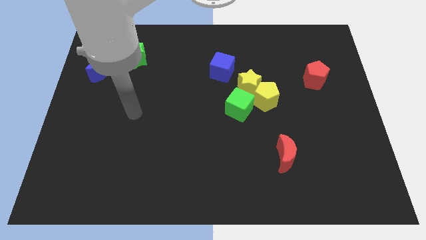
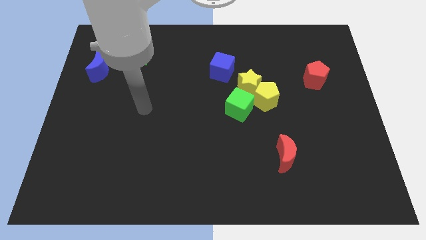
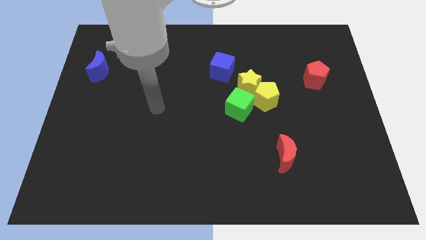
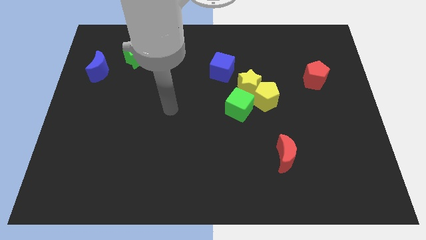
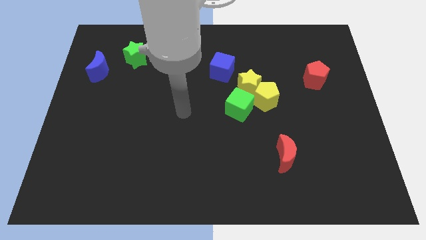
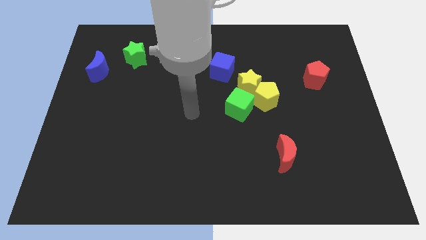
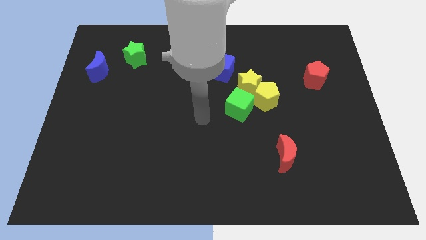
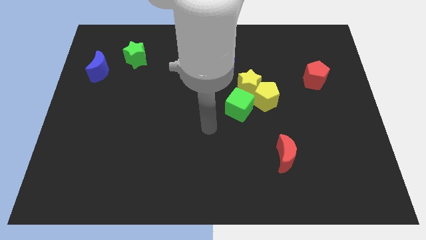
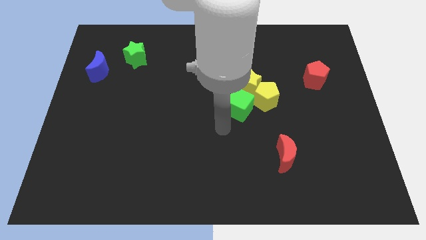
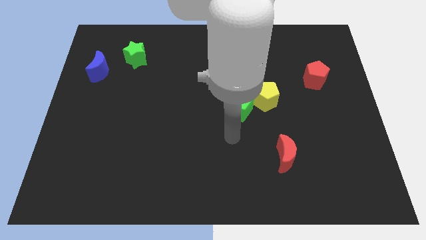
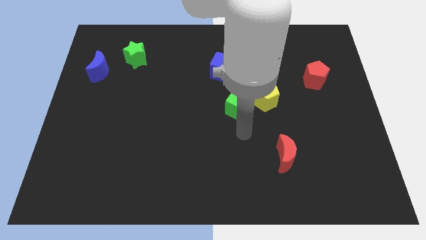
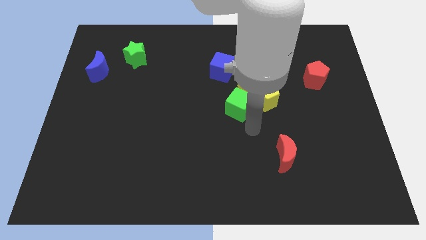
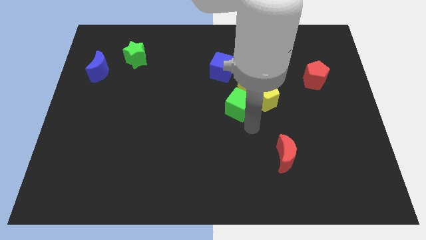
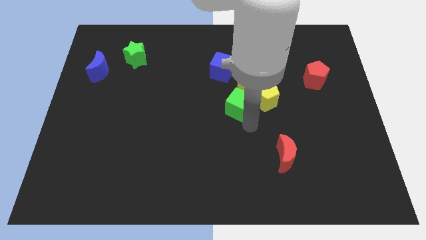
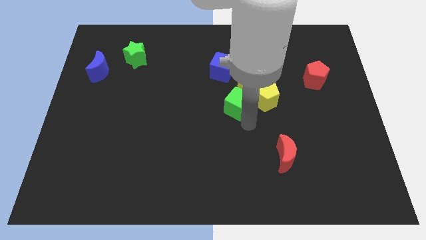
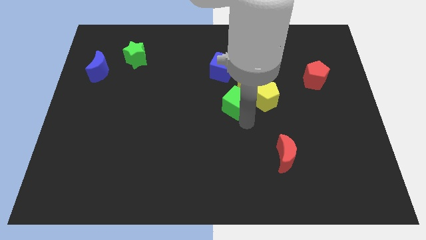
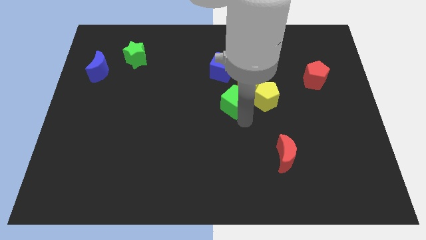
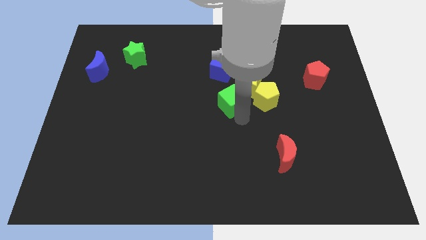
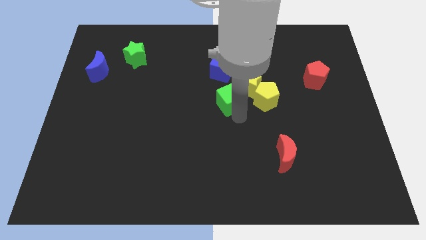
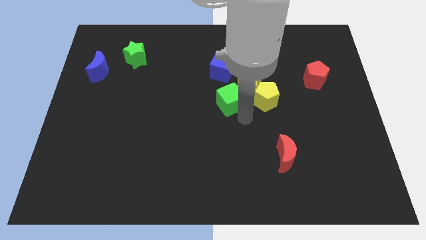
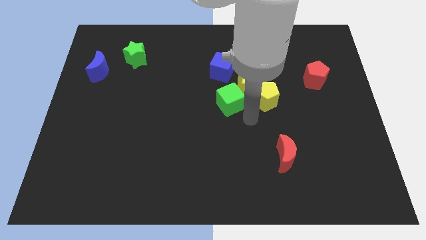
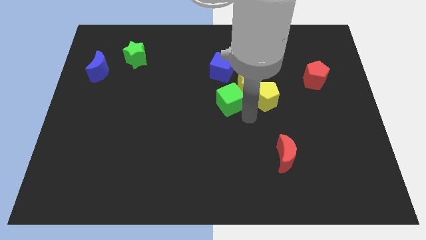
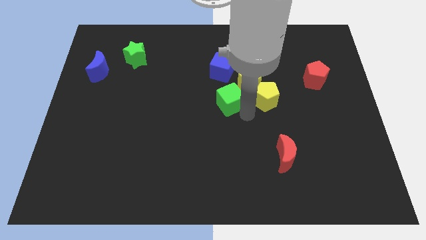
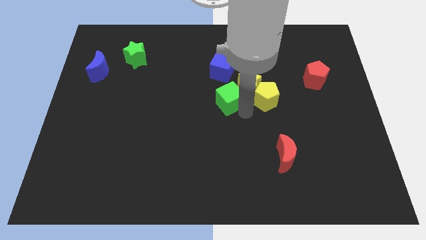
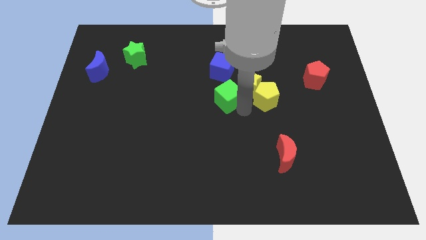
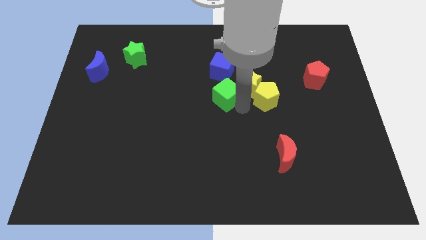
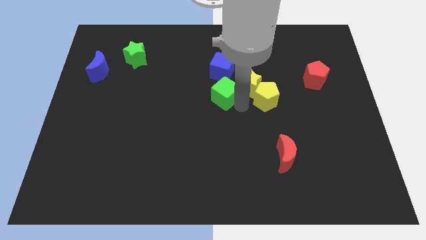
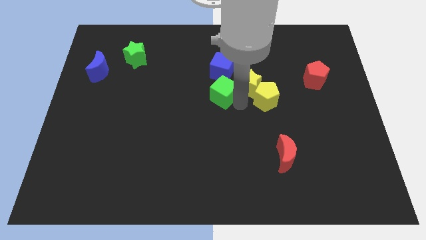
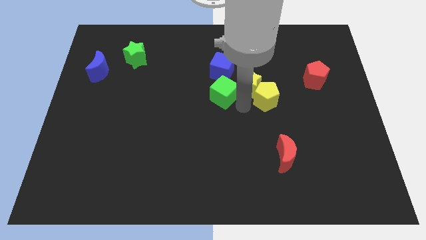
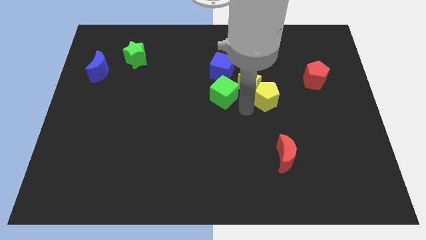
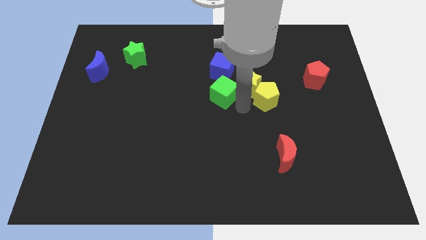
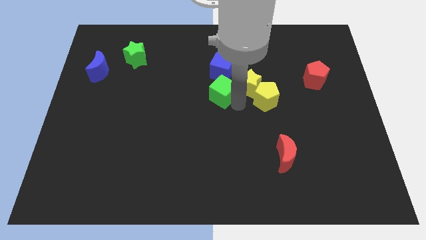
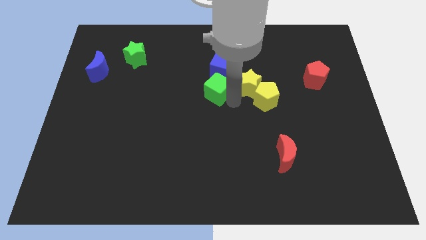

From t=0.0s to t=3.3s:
move the green cube a little upwards and left diagonally

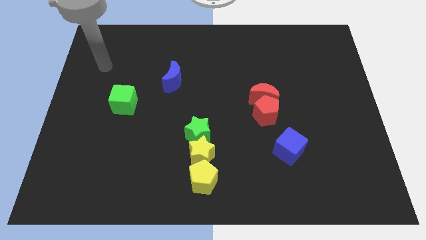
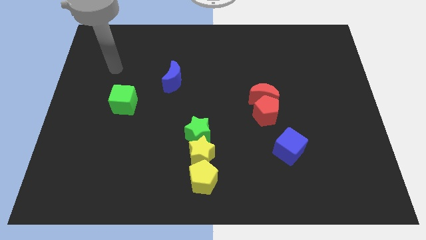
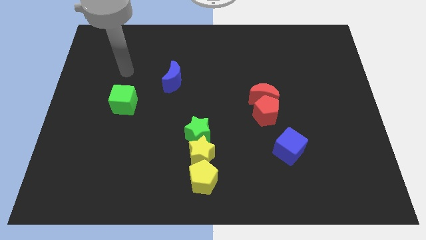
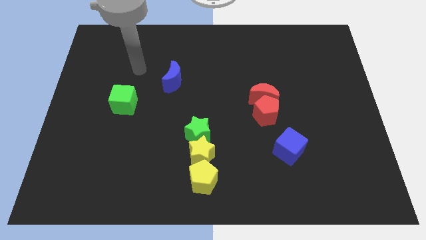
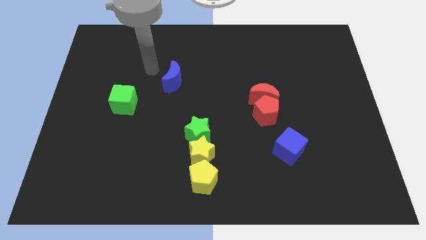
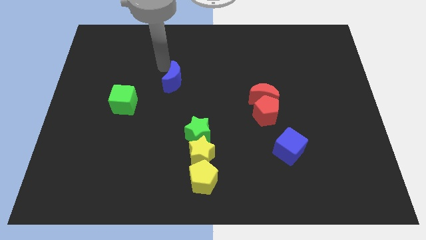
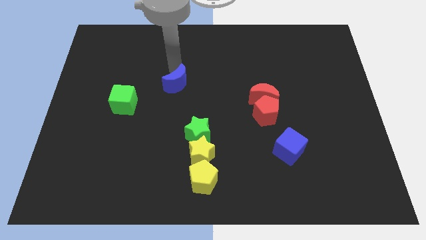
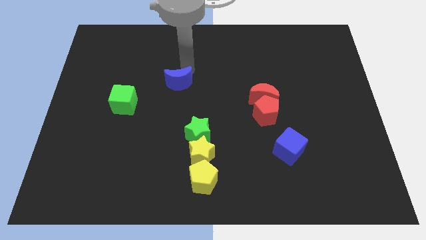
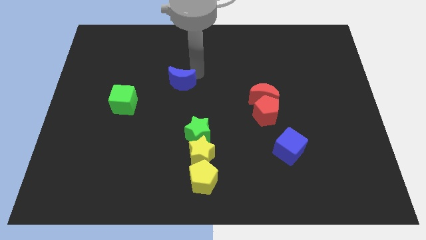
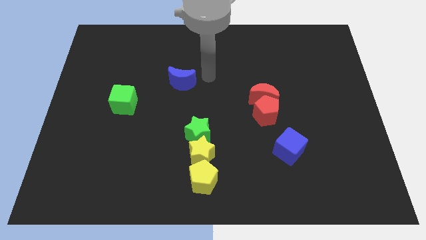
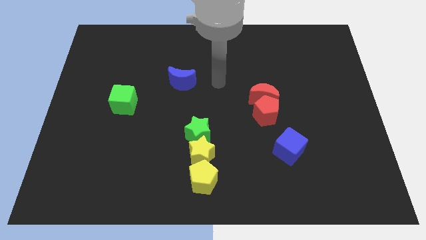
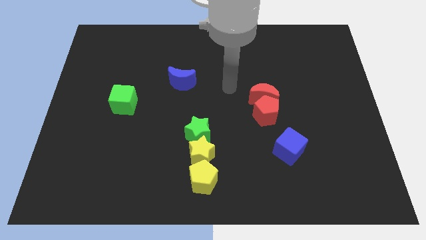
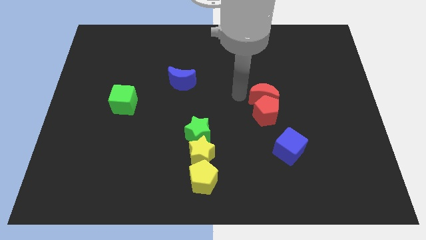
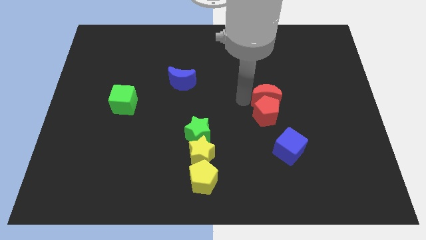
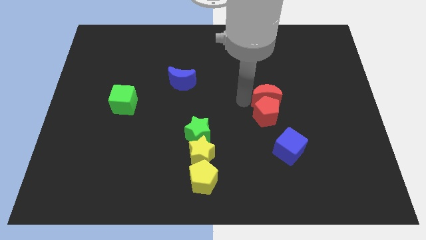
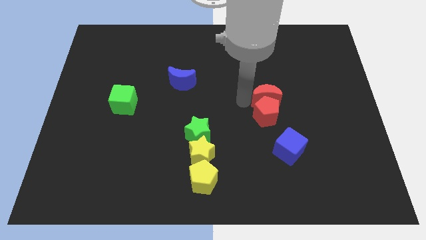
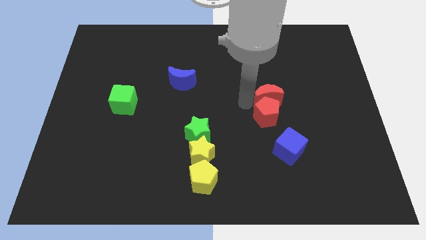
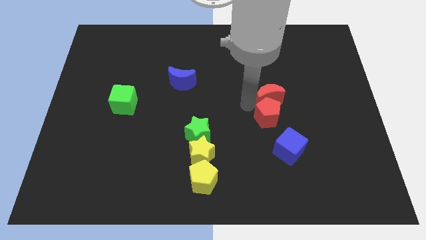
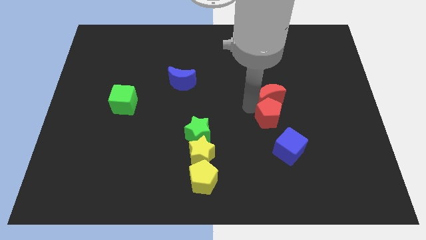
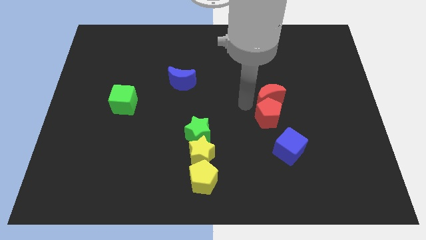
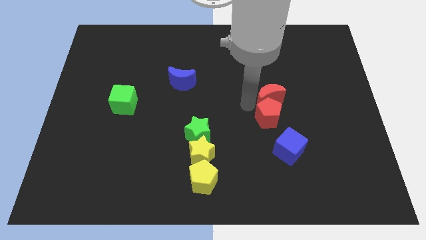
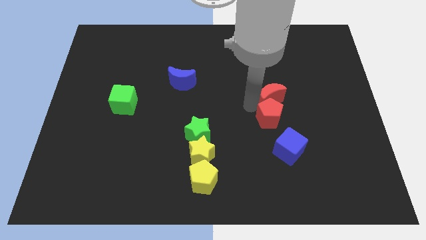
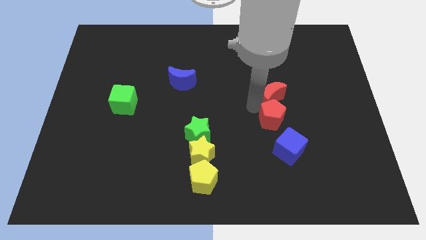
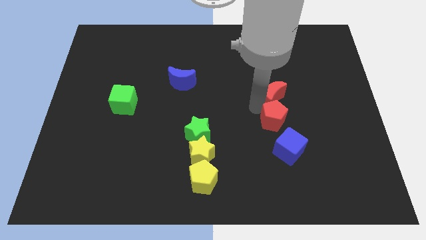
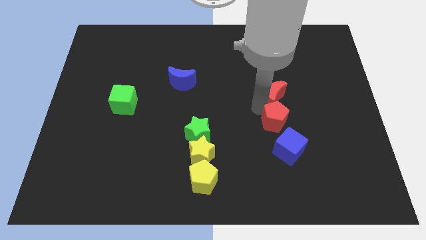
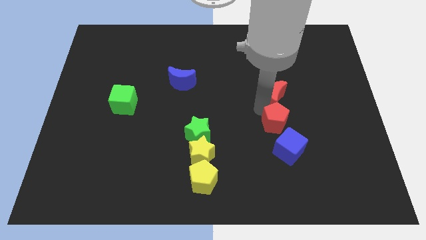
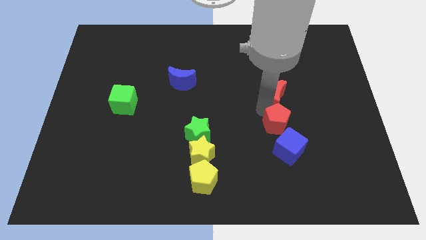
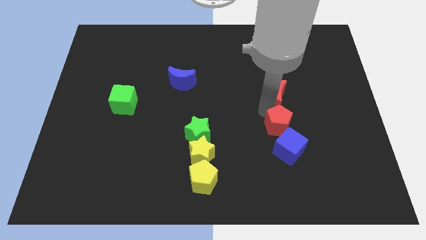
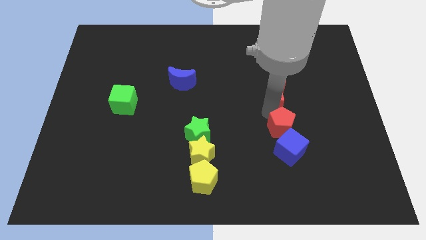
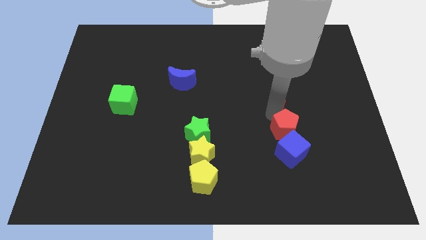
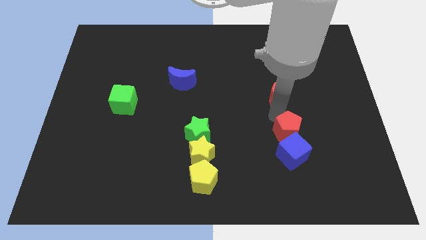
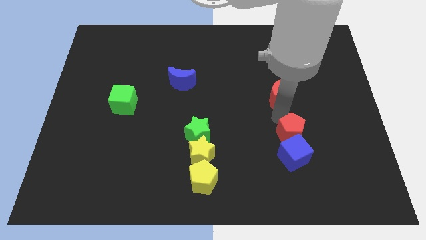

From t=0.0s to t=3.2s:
push the red pentagon downwards and right diagonally a little bit

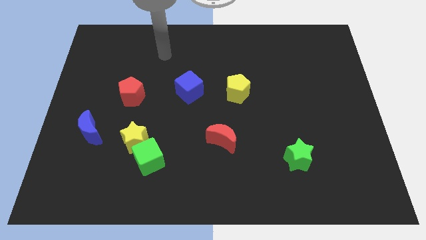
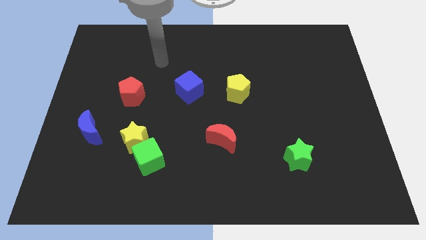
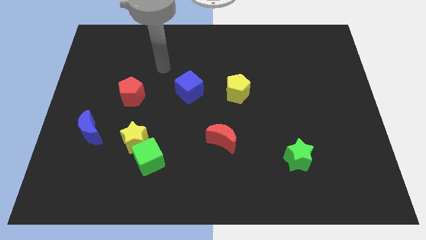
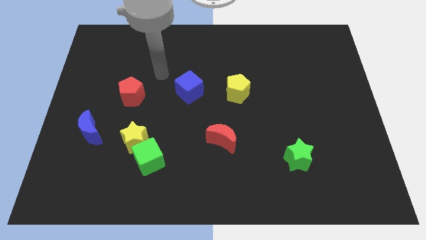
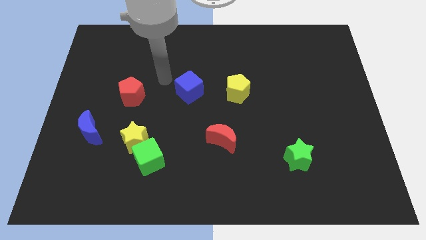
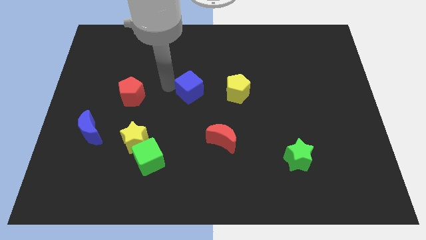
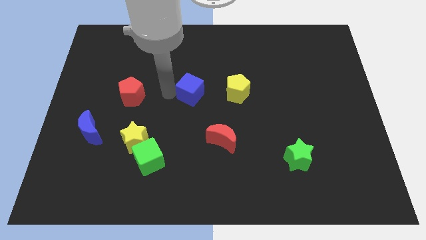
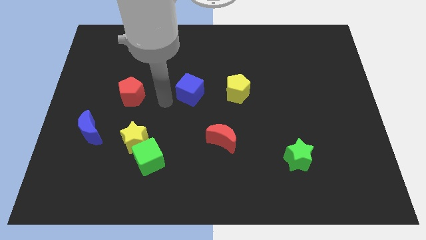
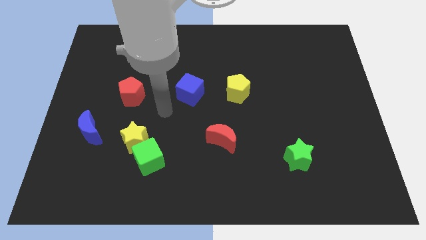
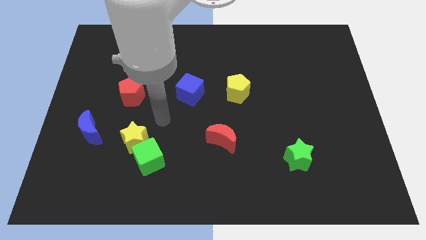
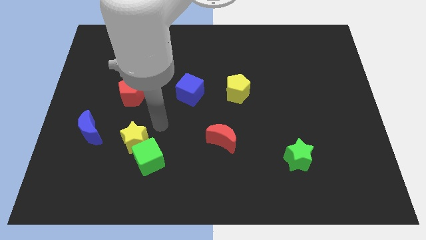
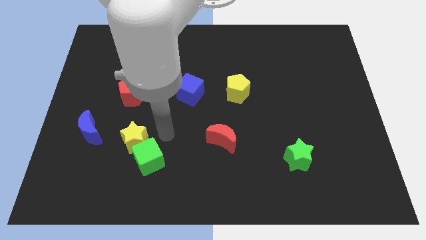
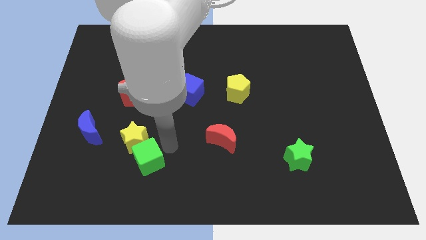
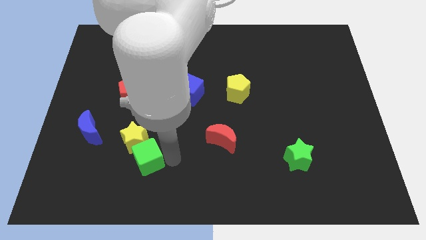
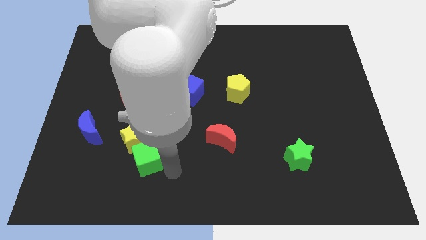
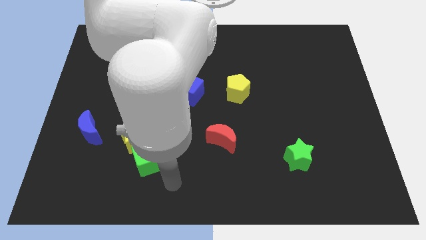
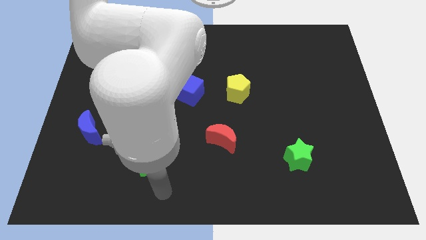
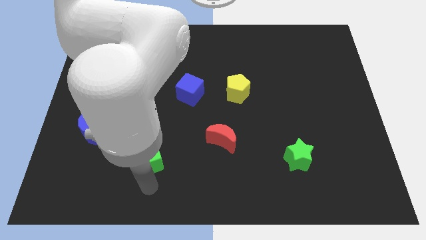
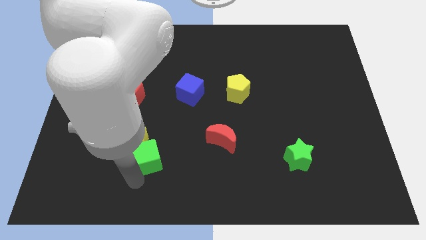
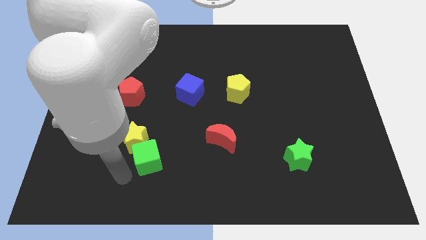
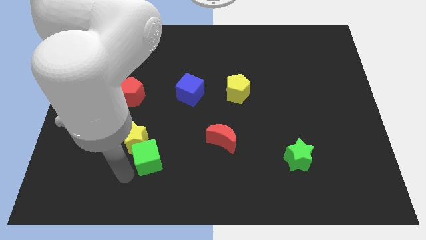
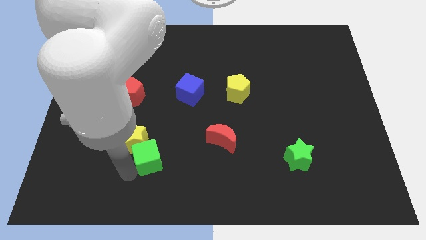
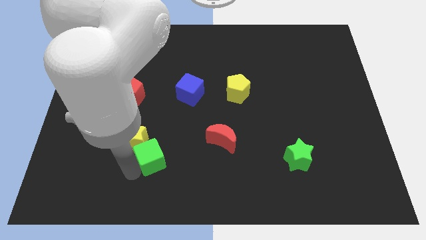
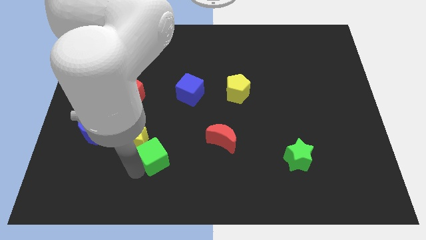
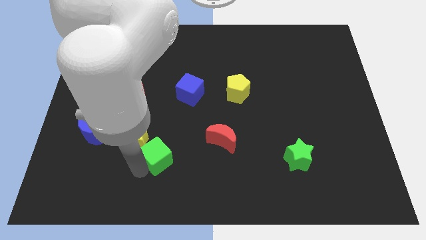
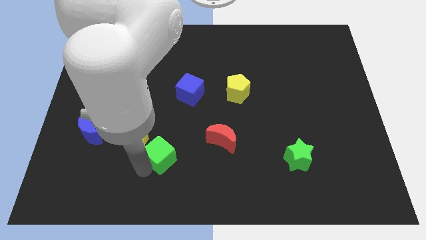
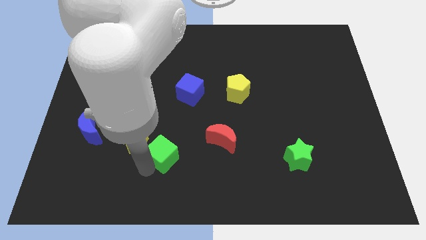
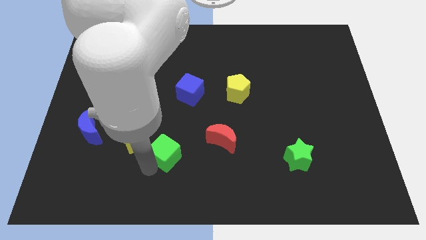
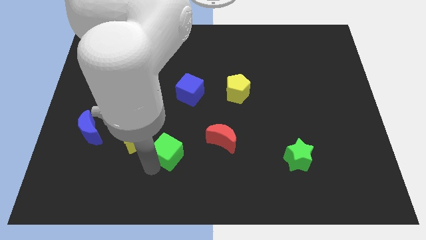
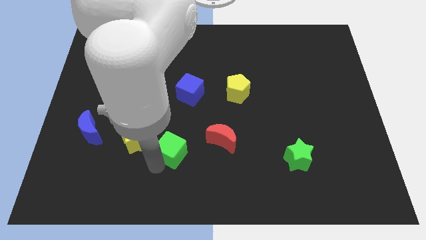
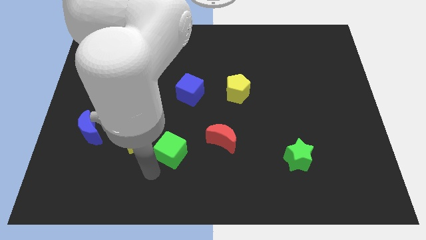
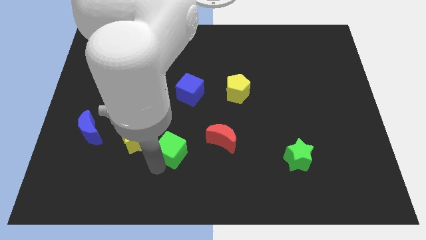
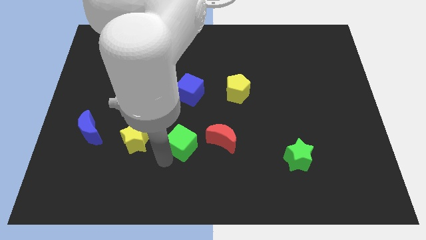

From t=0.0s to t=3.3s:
slide the green cube slightly upwards and to the right diagonally
